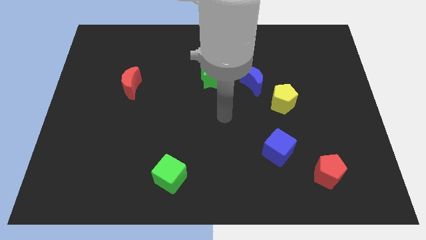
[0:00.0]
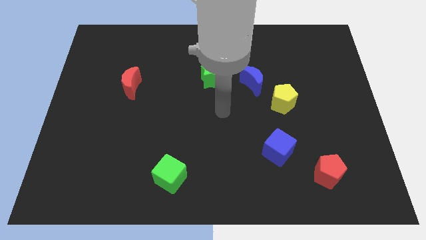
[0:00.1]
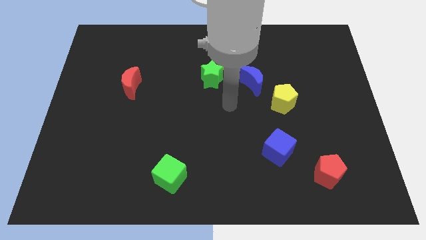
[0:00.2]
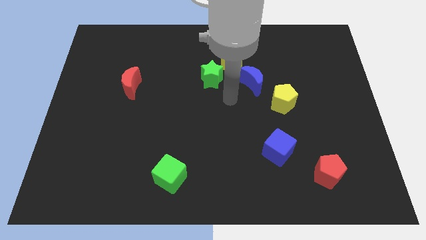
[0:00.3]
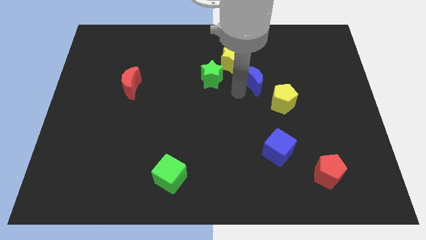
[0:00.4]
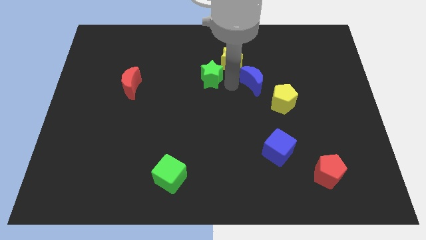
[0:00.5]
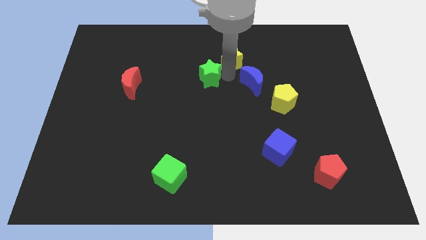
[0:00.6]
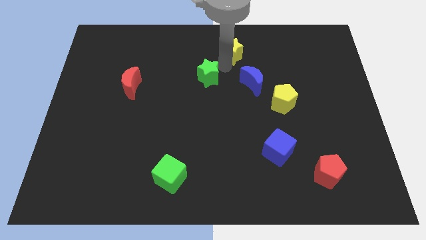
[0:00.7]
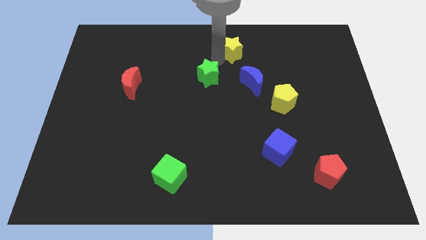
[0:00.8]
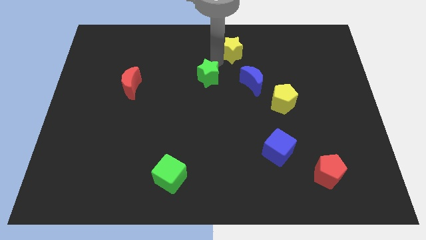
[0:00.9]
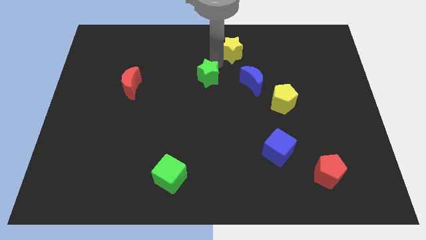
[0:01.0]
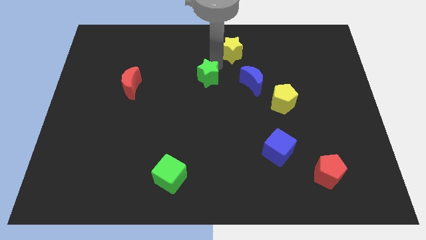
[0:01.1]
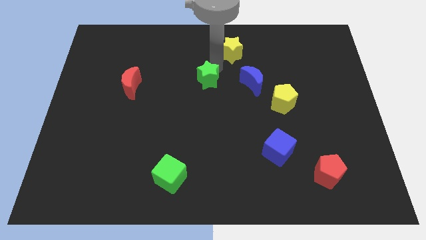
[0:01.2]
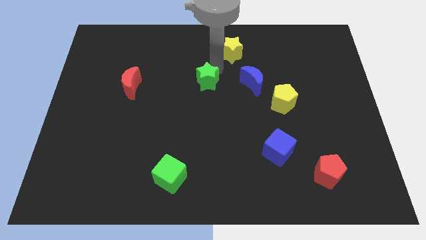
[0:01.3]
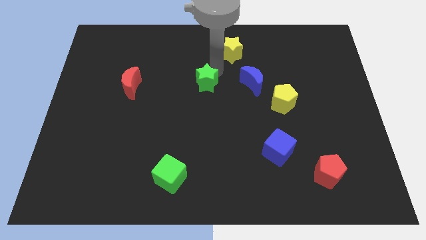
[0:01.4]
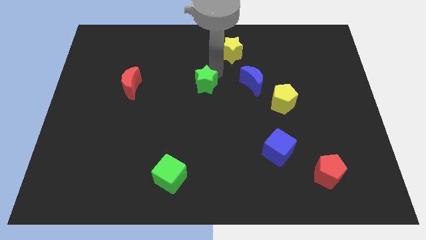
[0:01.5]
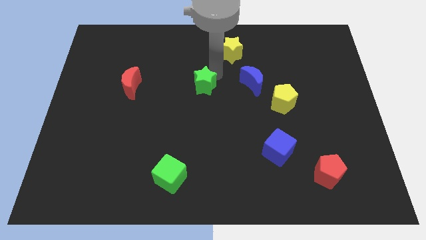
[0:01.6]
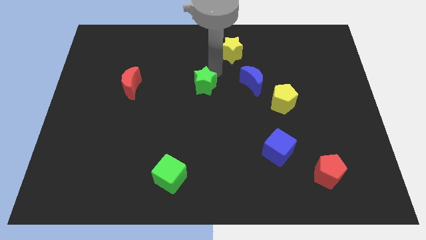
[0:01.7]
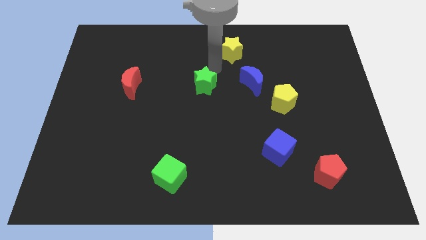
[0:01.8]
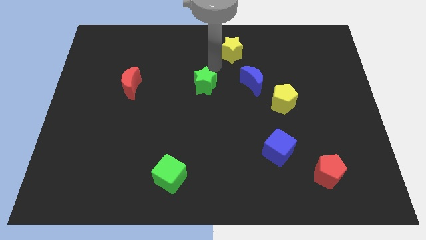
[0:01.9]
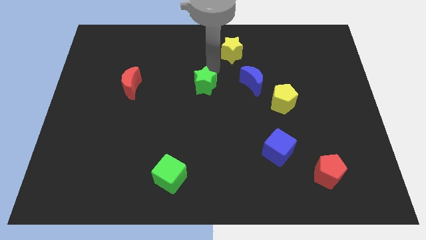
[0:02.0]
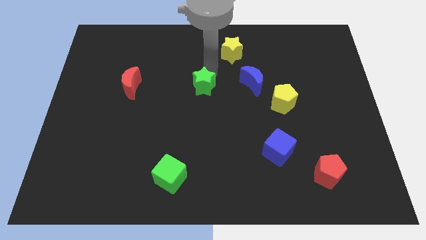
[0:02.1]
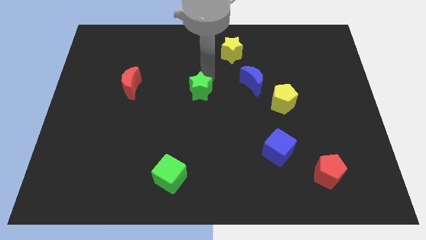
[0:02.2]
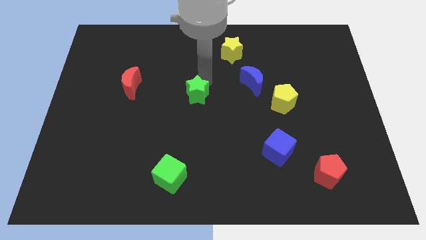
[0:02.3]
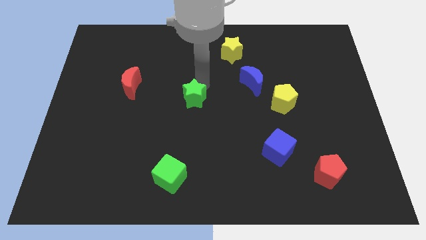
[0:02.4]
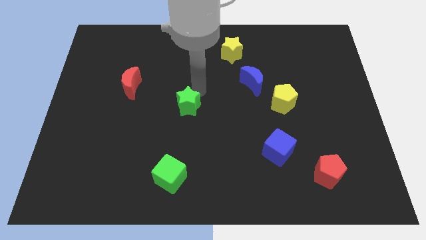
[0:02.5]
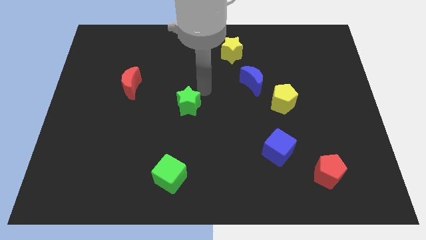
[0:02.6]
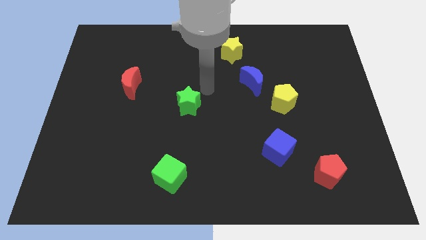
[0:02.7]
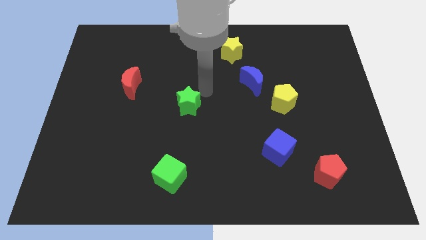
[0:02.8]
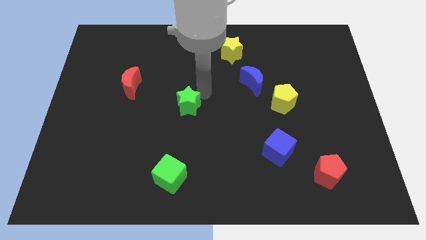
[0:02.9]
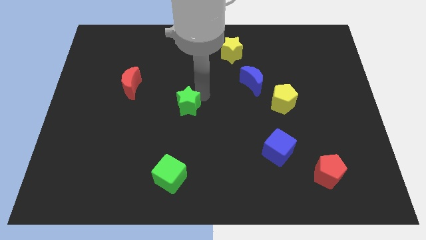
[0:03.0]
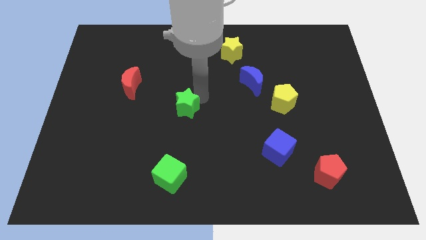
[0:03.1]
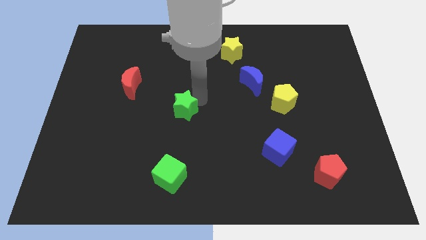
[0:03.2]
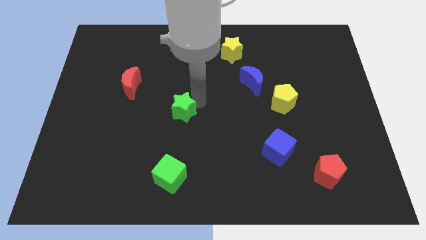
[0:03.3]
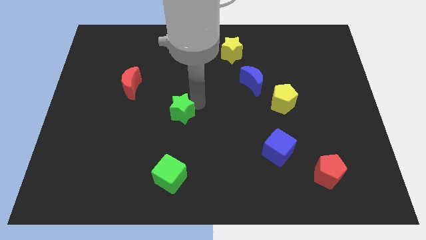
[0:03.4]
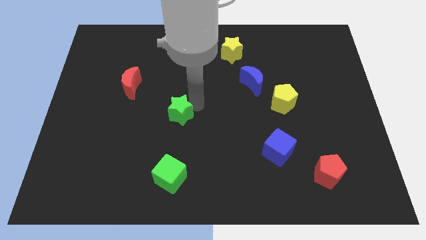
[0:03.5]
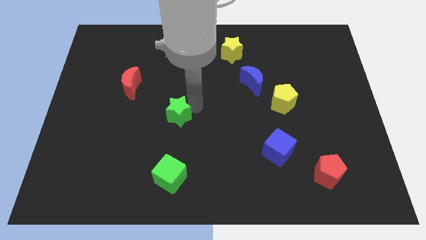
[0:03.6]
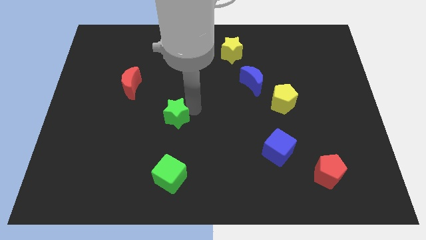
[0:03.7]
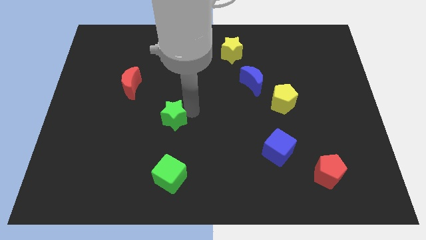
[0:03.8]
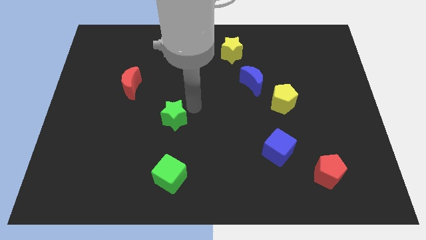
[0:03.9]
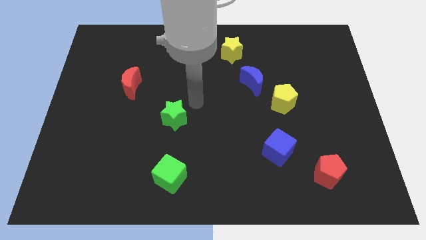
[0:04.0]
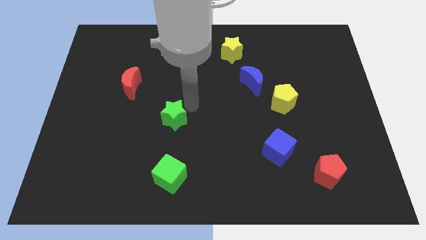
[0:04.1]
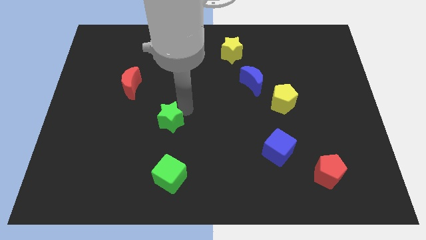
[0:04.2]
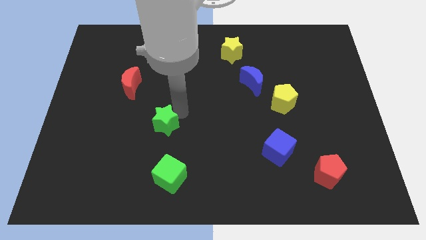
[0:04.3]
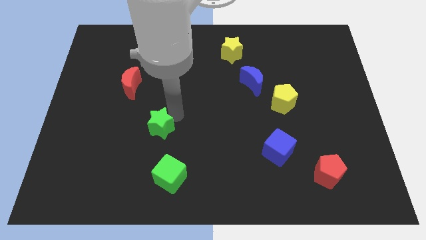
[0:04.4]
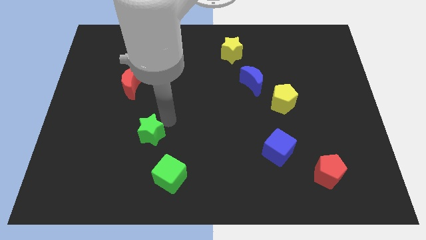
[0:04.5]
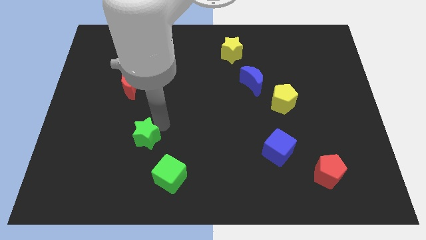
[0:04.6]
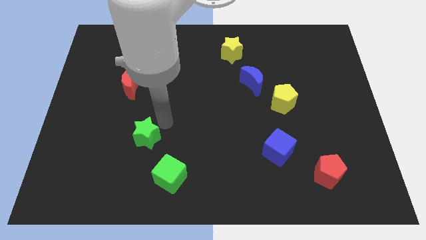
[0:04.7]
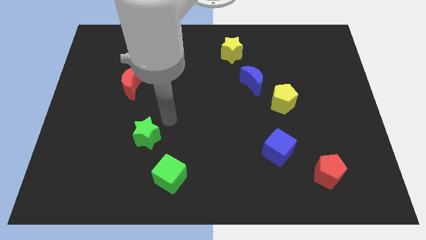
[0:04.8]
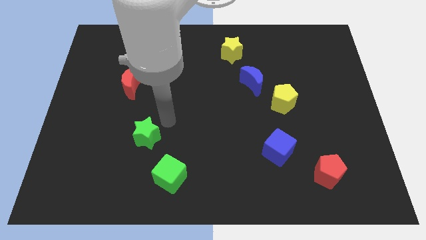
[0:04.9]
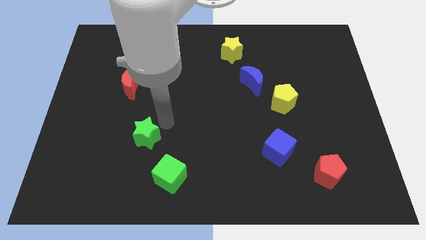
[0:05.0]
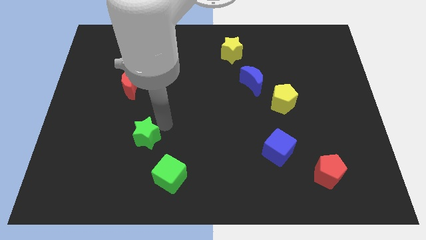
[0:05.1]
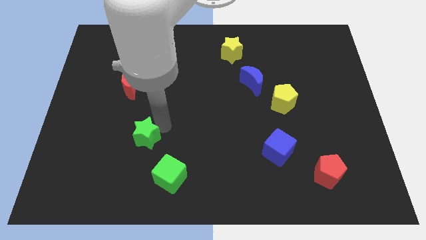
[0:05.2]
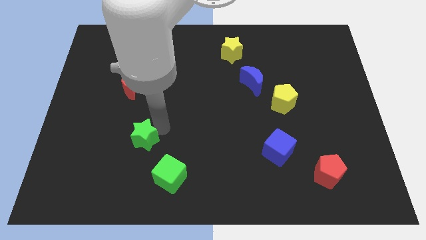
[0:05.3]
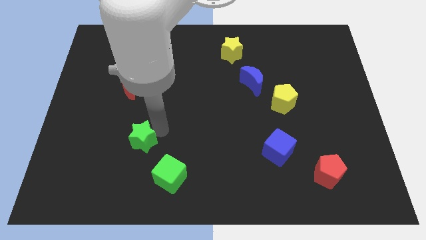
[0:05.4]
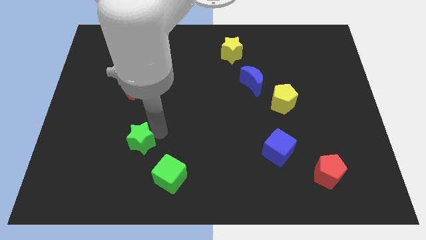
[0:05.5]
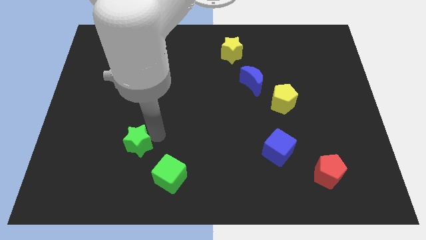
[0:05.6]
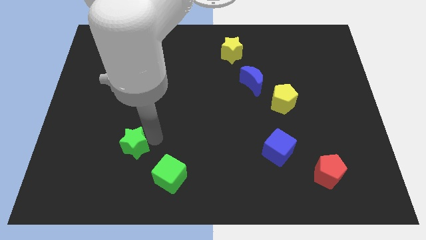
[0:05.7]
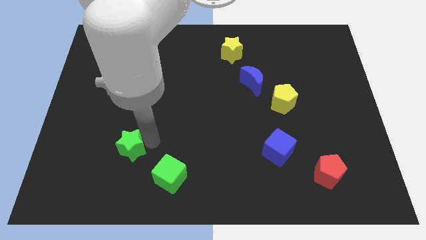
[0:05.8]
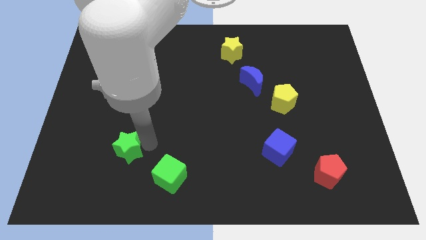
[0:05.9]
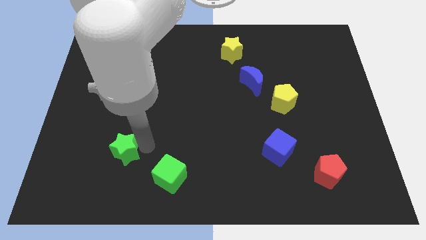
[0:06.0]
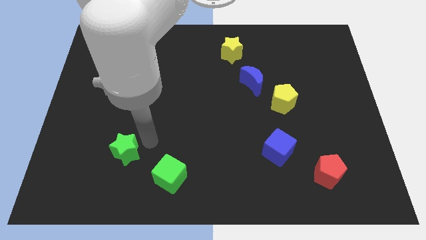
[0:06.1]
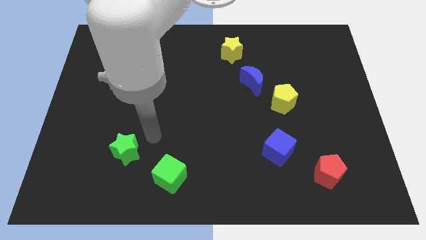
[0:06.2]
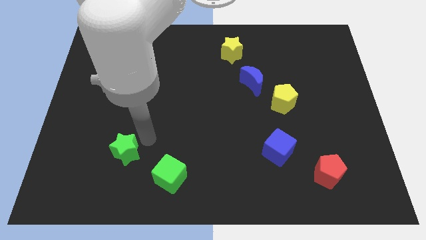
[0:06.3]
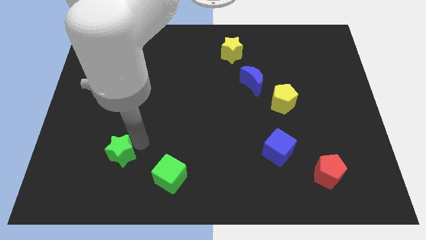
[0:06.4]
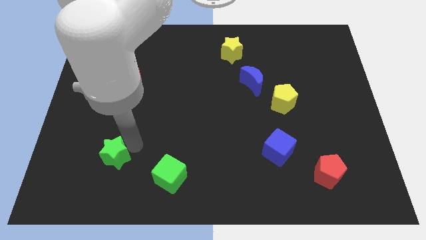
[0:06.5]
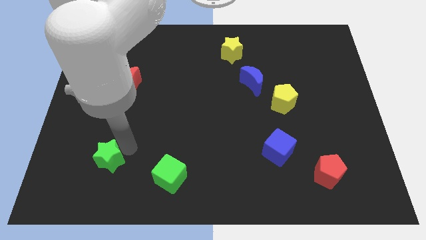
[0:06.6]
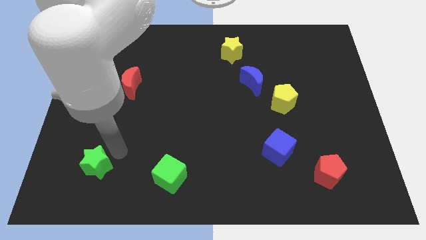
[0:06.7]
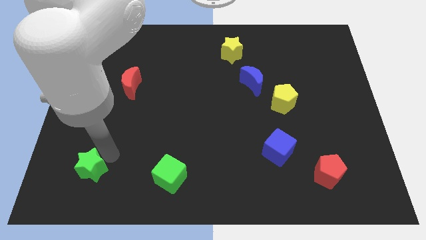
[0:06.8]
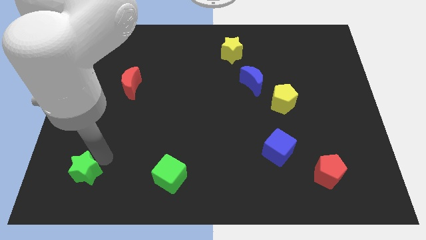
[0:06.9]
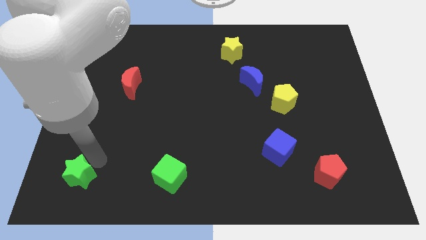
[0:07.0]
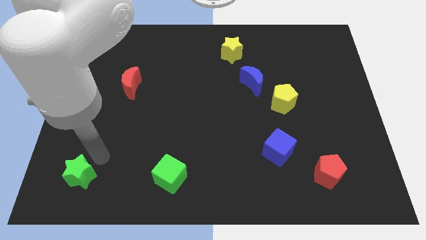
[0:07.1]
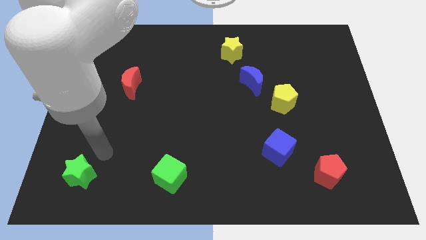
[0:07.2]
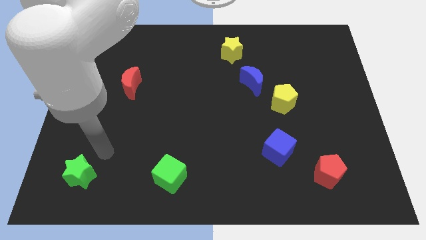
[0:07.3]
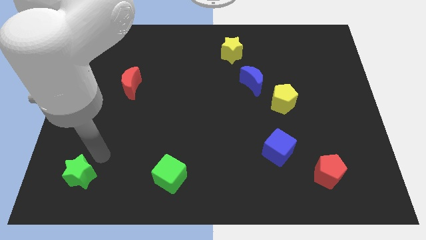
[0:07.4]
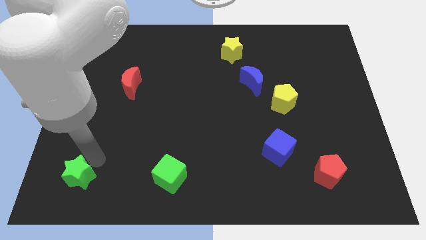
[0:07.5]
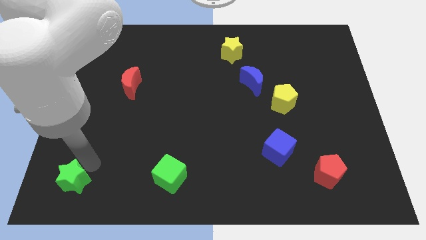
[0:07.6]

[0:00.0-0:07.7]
slide the green star to the bottom left corner
